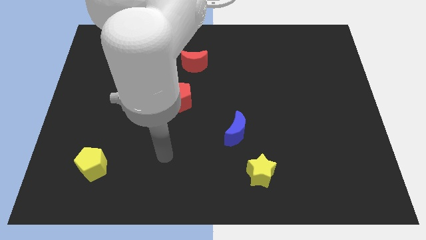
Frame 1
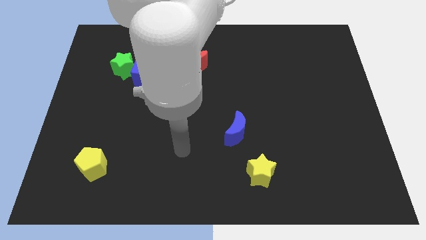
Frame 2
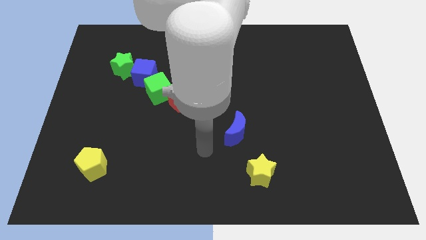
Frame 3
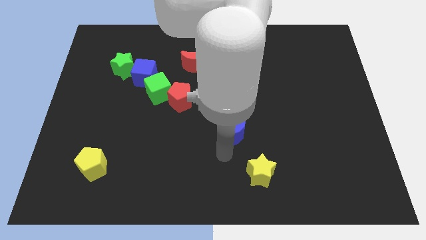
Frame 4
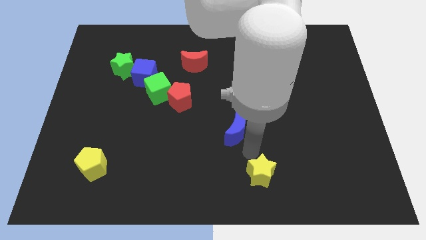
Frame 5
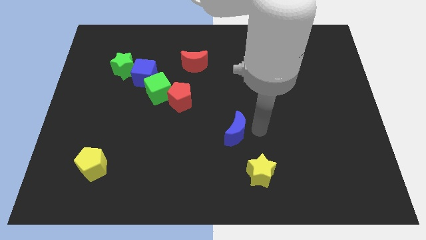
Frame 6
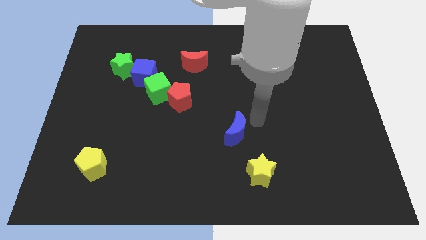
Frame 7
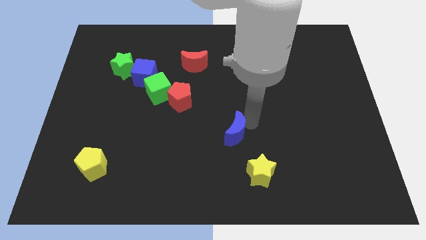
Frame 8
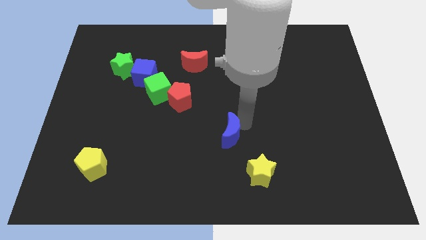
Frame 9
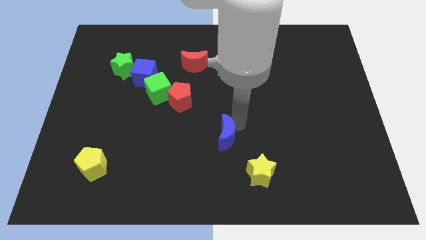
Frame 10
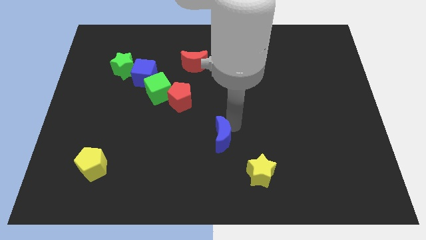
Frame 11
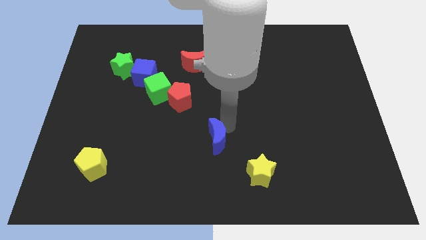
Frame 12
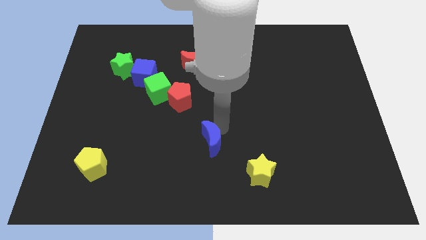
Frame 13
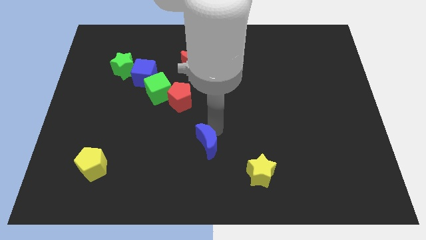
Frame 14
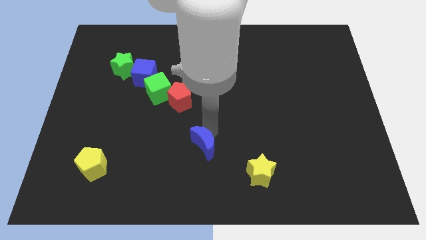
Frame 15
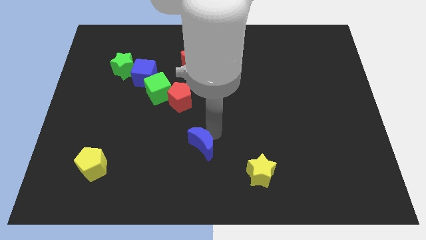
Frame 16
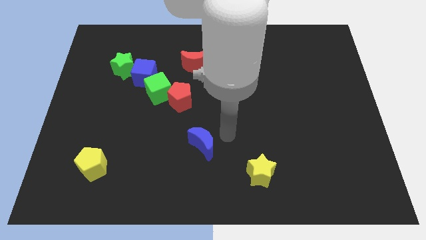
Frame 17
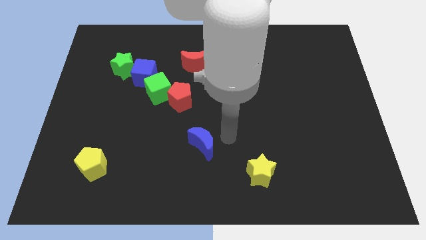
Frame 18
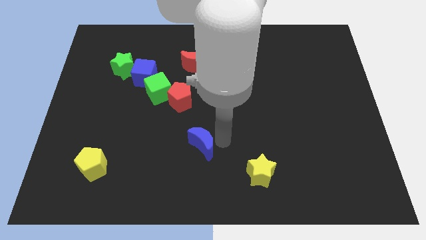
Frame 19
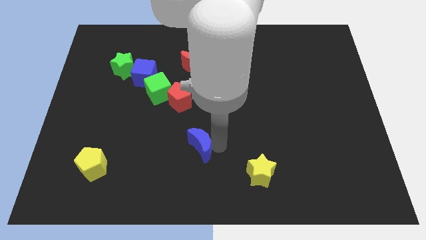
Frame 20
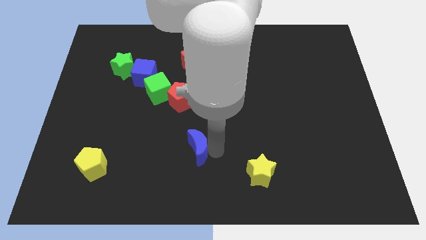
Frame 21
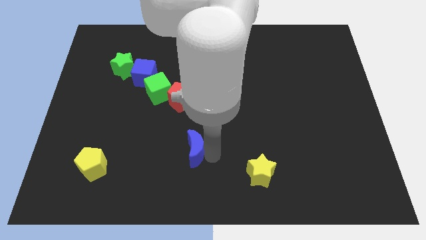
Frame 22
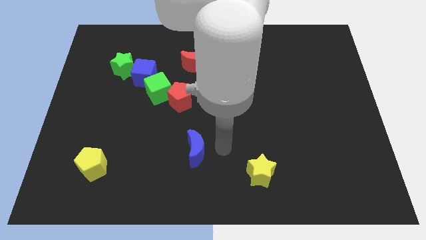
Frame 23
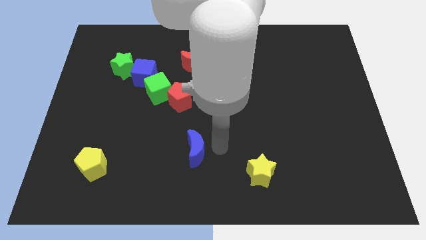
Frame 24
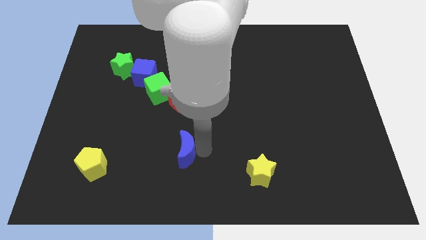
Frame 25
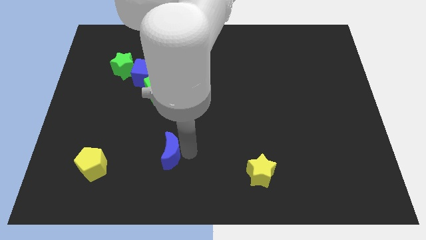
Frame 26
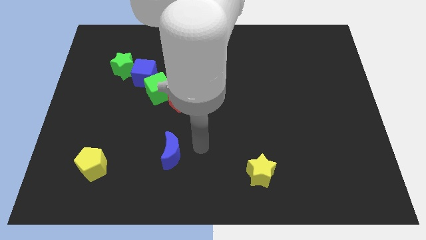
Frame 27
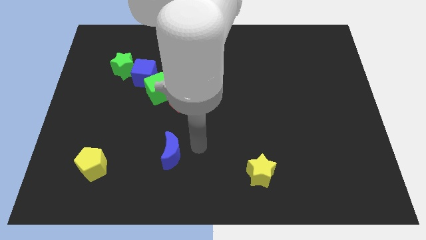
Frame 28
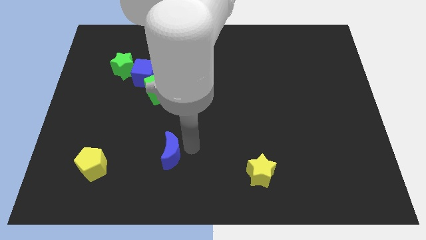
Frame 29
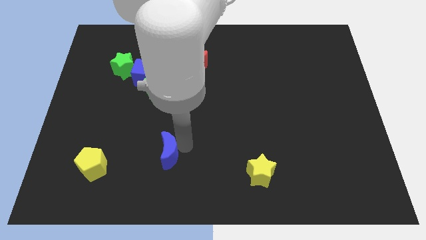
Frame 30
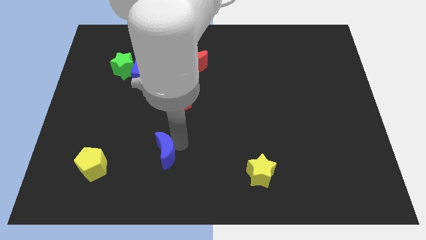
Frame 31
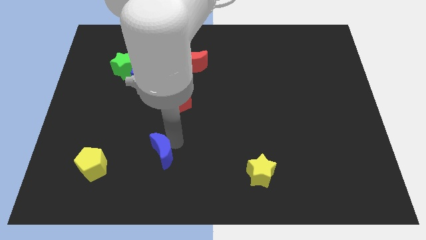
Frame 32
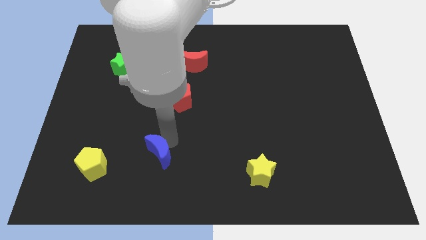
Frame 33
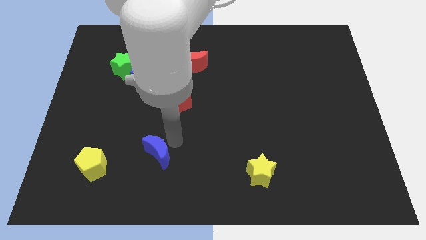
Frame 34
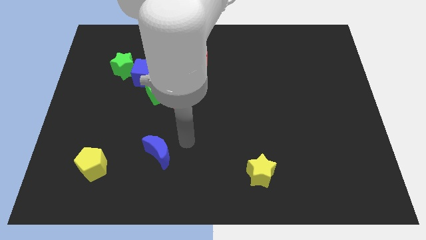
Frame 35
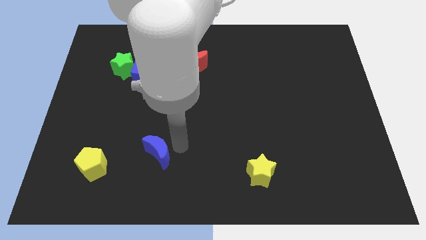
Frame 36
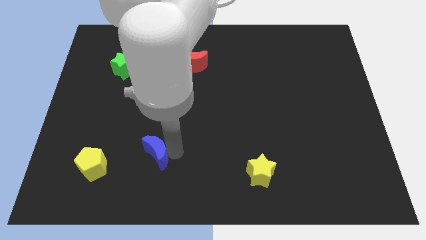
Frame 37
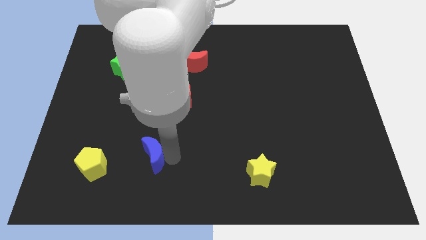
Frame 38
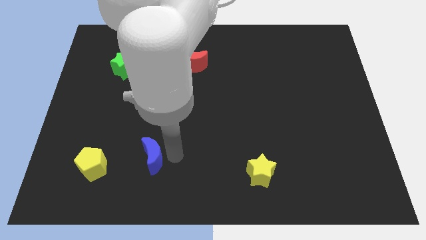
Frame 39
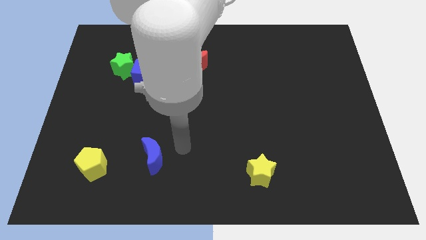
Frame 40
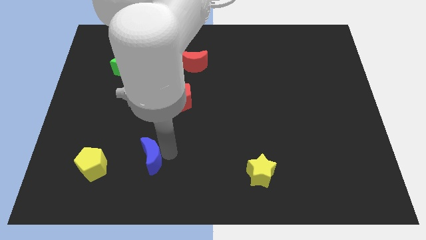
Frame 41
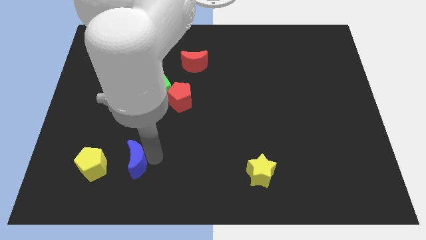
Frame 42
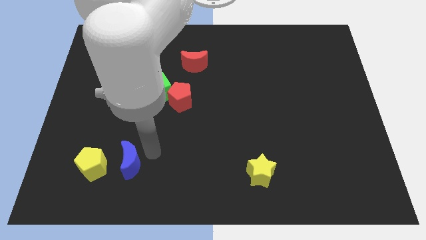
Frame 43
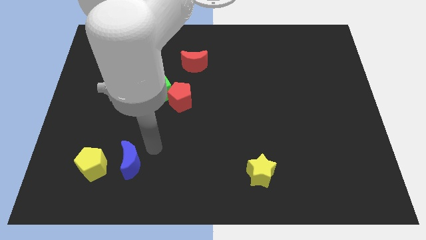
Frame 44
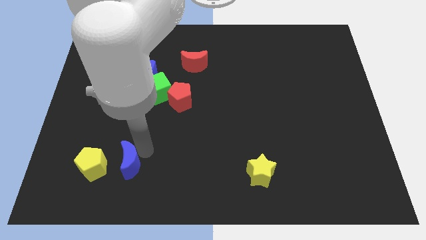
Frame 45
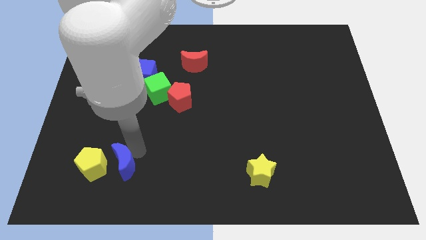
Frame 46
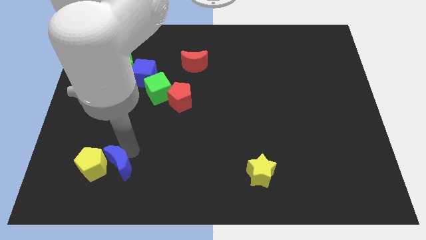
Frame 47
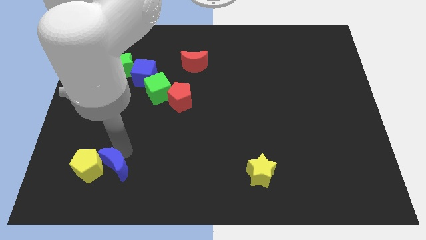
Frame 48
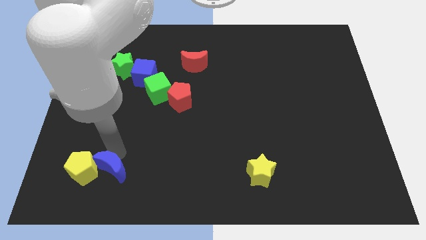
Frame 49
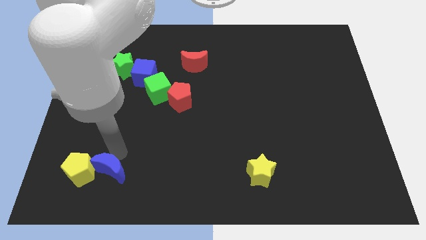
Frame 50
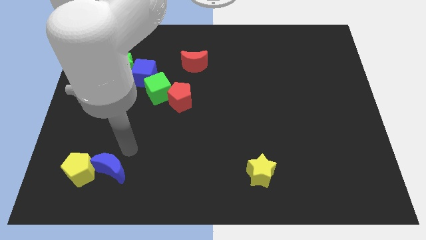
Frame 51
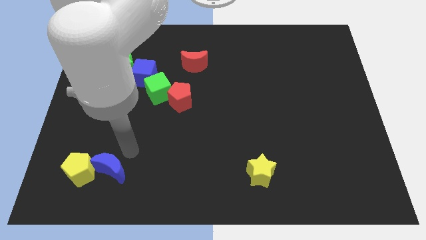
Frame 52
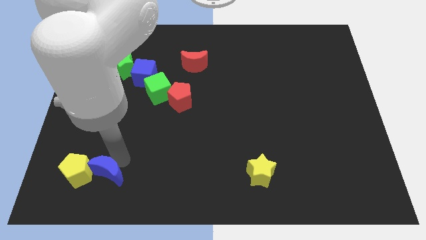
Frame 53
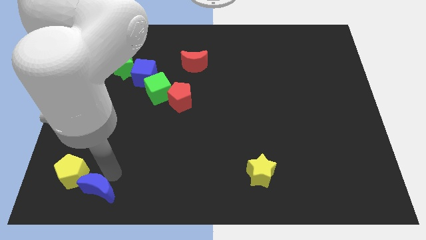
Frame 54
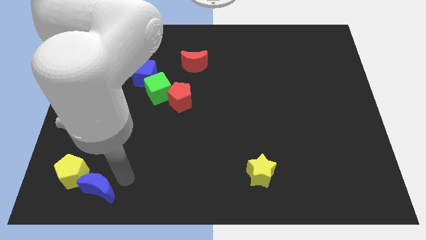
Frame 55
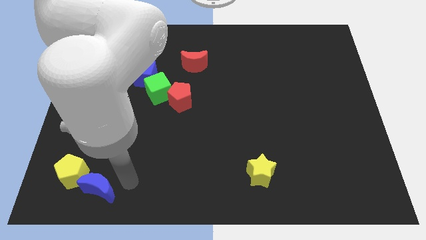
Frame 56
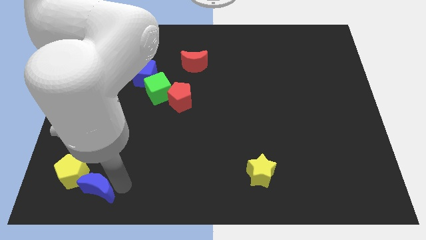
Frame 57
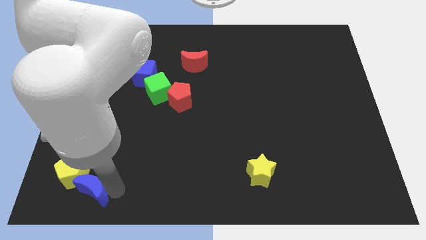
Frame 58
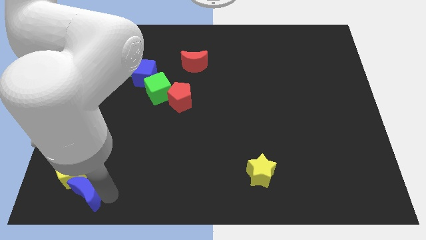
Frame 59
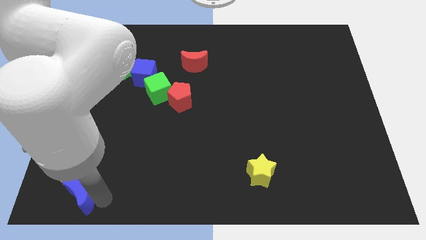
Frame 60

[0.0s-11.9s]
put the blue moon to the bottom left corner

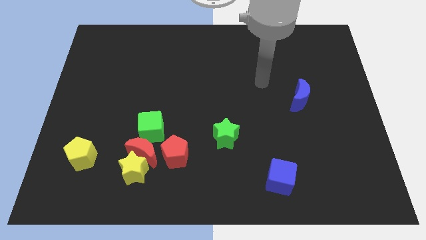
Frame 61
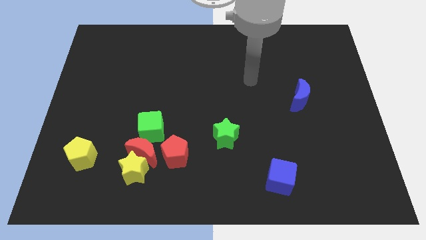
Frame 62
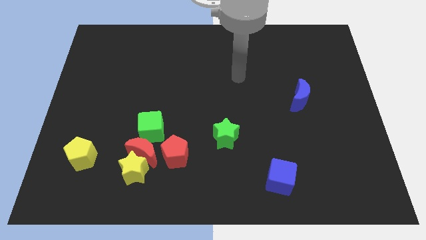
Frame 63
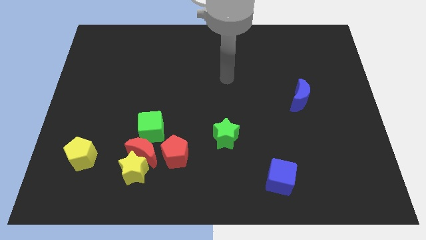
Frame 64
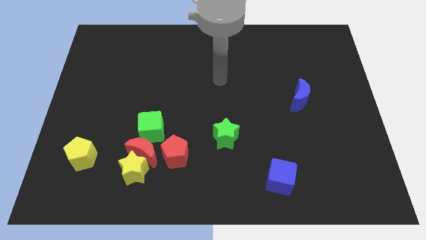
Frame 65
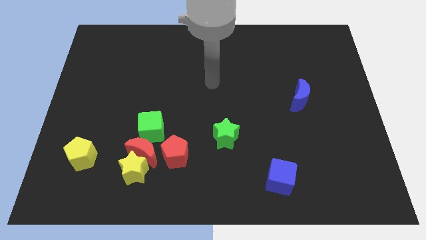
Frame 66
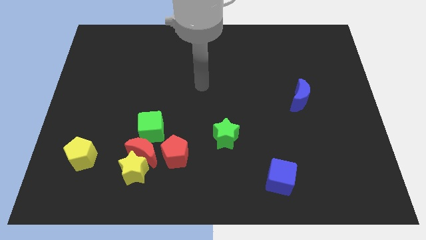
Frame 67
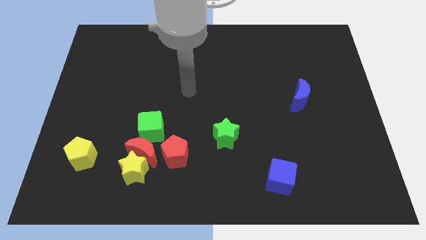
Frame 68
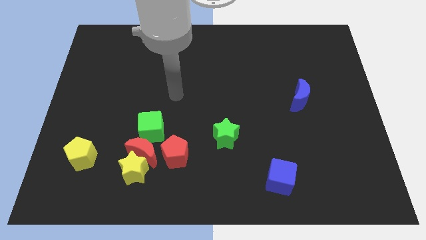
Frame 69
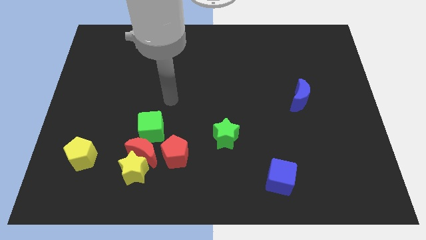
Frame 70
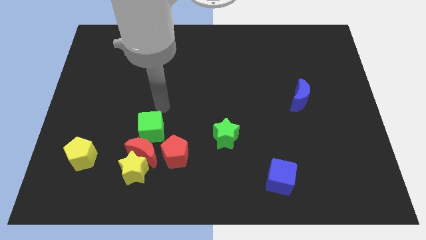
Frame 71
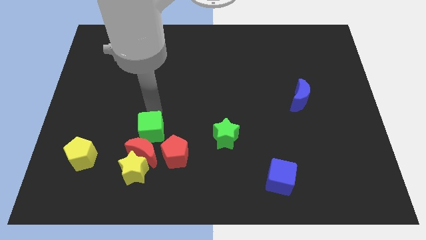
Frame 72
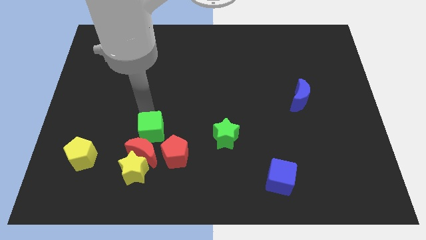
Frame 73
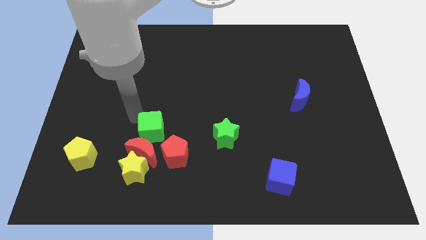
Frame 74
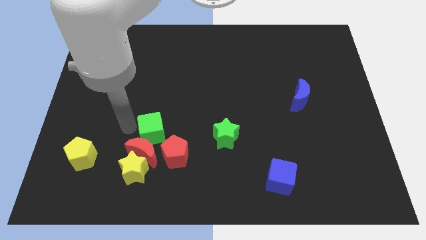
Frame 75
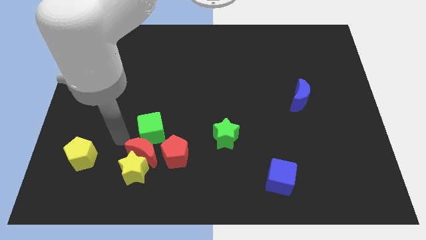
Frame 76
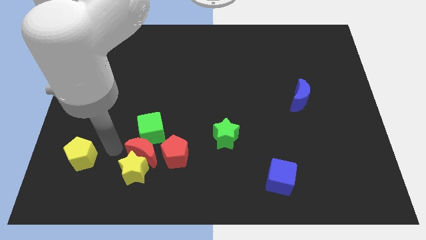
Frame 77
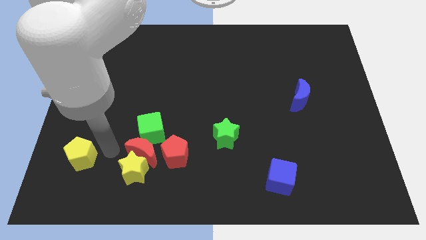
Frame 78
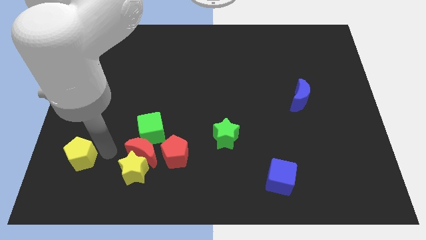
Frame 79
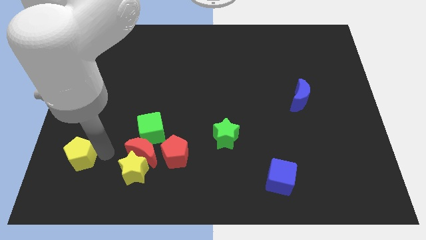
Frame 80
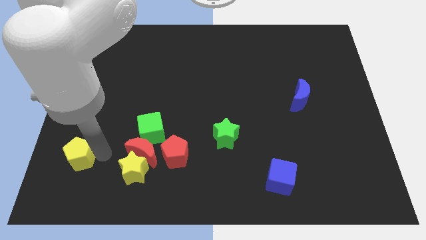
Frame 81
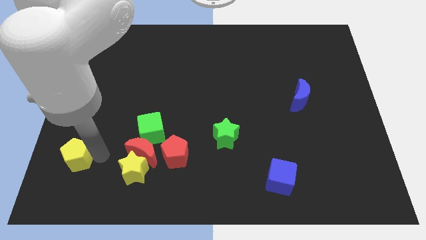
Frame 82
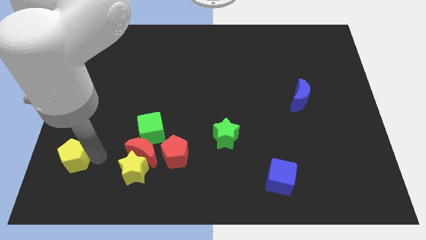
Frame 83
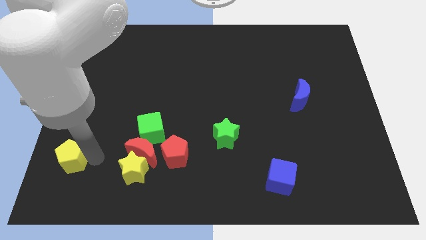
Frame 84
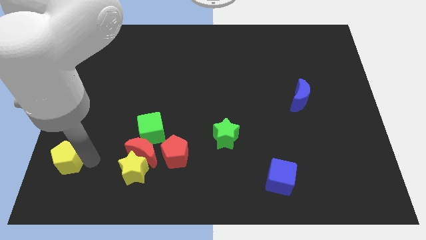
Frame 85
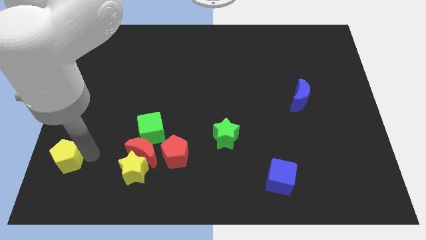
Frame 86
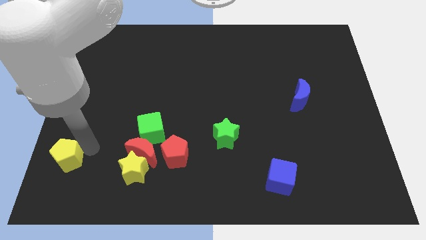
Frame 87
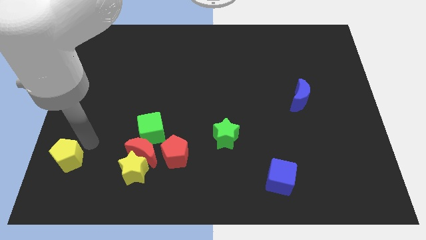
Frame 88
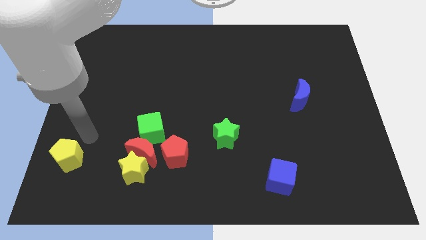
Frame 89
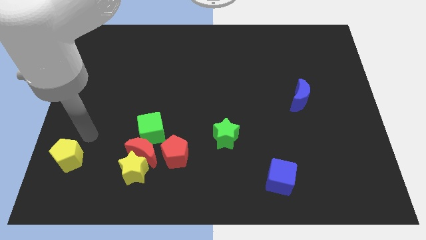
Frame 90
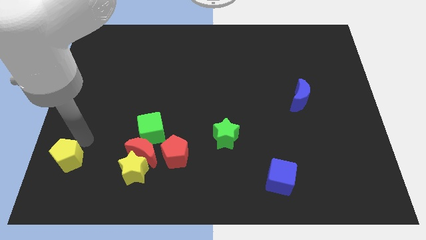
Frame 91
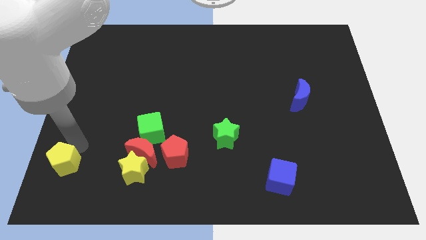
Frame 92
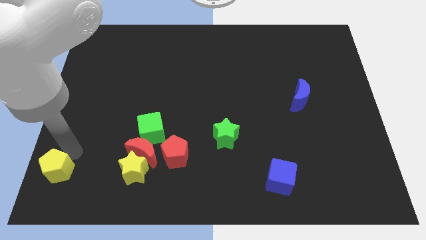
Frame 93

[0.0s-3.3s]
move the yellow pentagon to the bottom left corner
